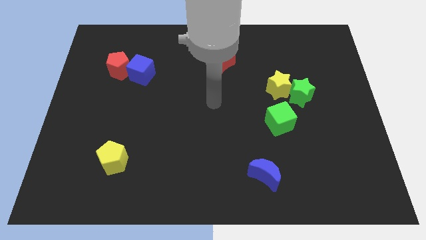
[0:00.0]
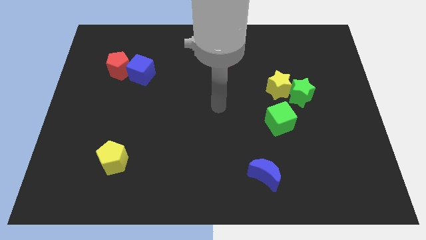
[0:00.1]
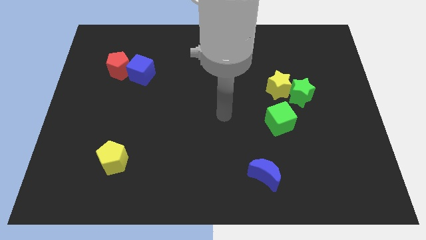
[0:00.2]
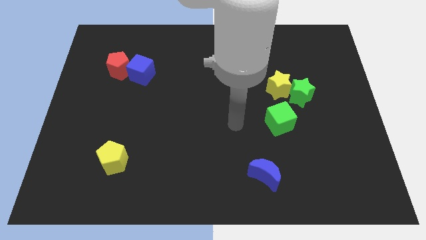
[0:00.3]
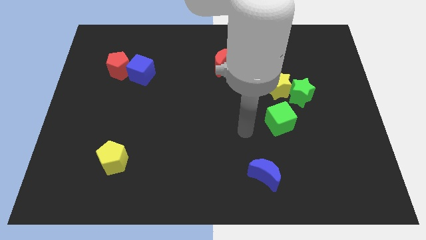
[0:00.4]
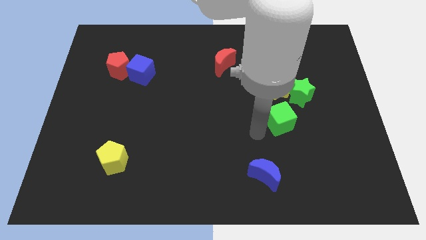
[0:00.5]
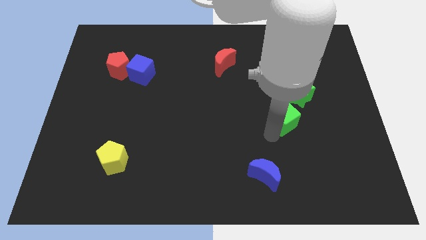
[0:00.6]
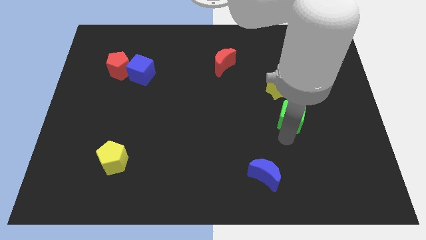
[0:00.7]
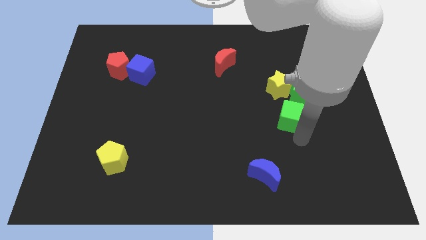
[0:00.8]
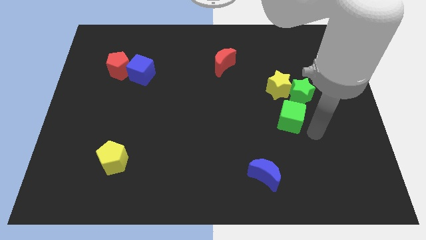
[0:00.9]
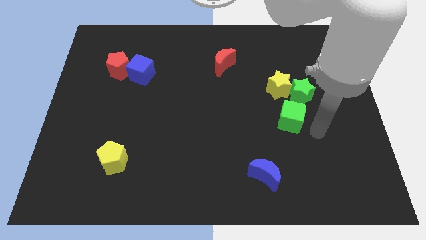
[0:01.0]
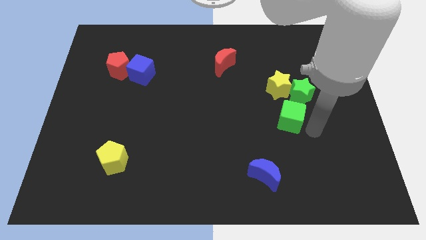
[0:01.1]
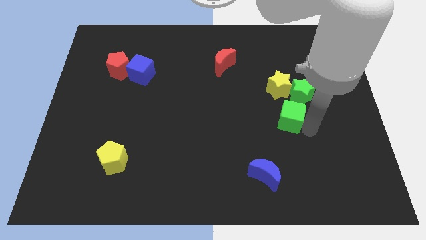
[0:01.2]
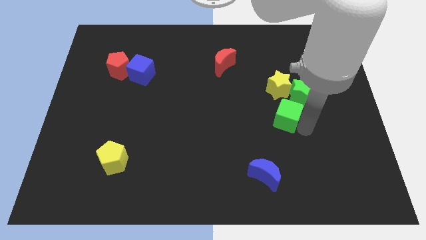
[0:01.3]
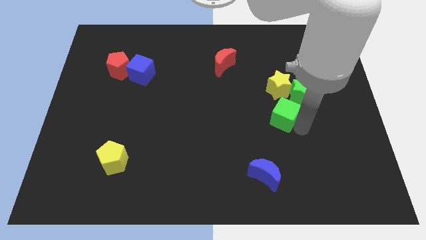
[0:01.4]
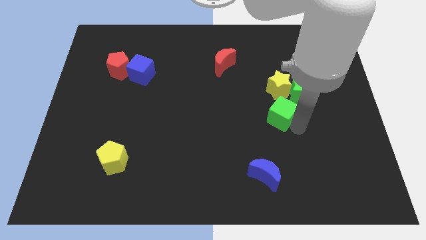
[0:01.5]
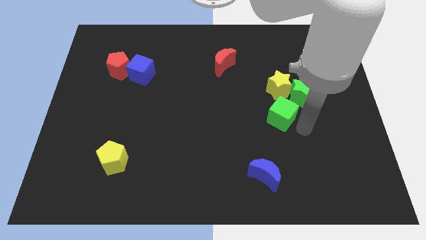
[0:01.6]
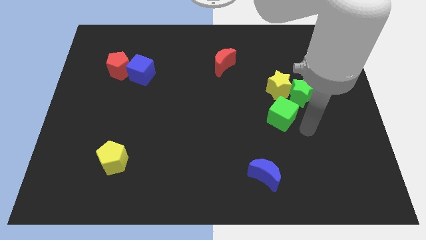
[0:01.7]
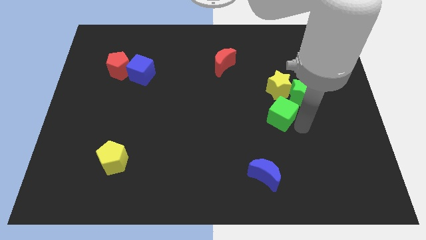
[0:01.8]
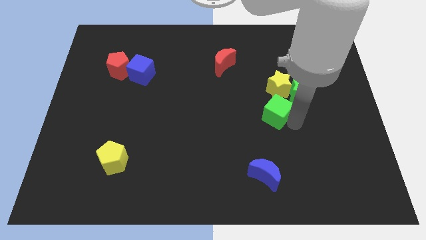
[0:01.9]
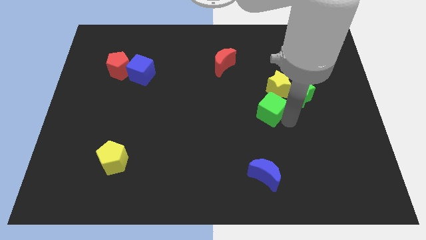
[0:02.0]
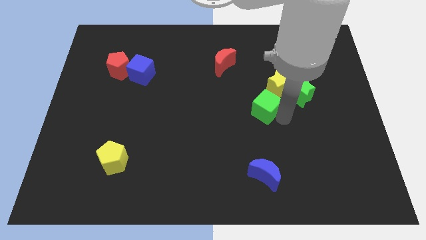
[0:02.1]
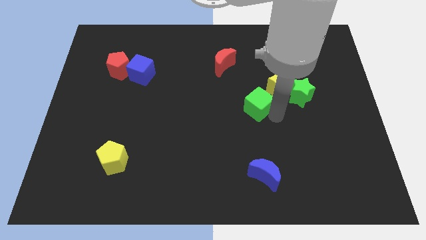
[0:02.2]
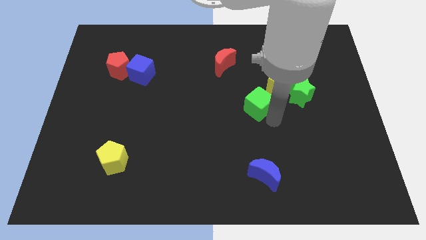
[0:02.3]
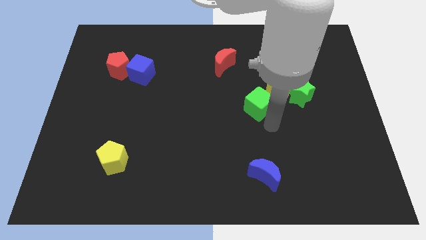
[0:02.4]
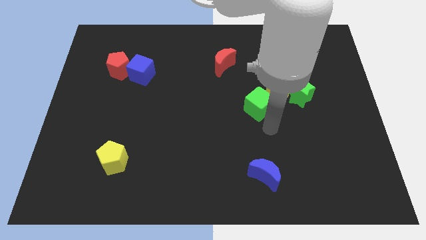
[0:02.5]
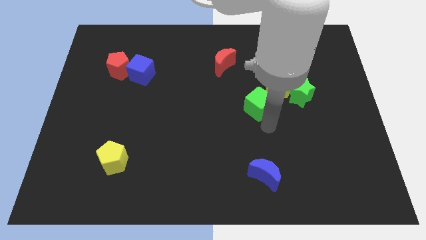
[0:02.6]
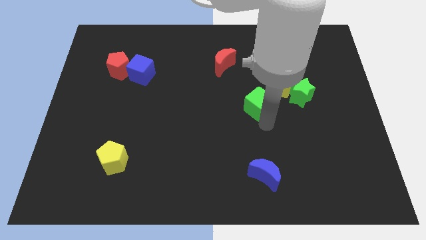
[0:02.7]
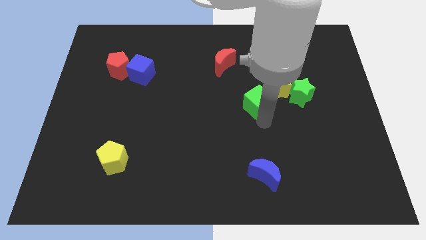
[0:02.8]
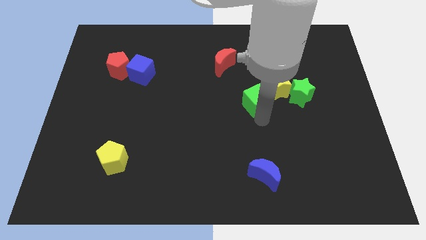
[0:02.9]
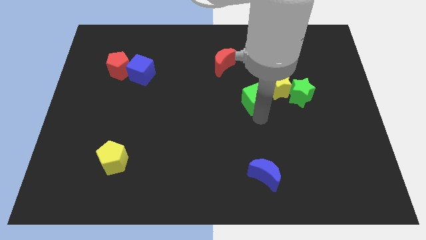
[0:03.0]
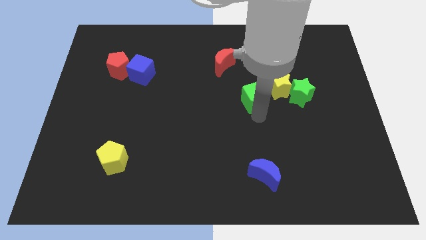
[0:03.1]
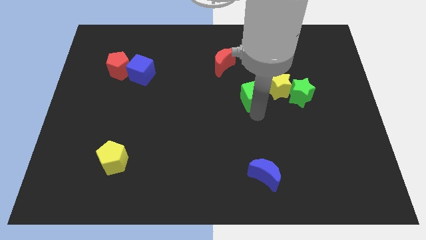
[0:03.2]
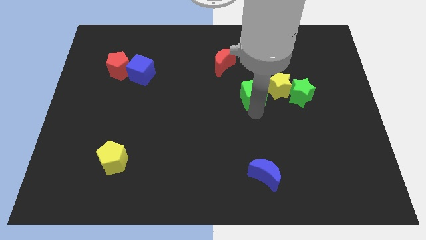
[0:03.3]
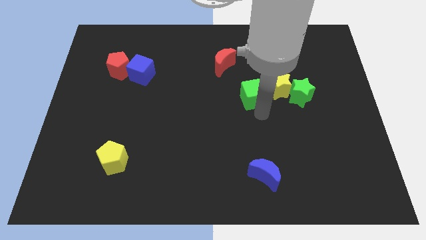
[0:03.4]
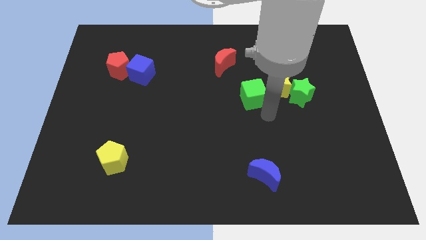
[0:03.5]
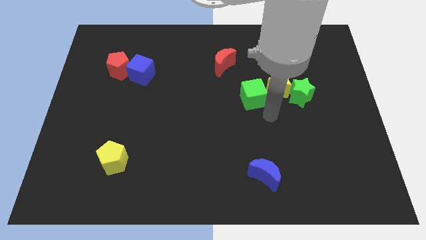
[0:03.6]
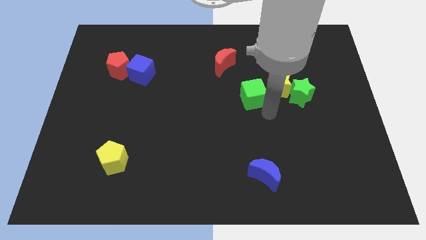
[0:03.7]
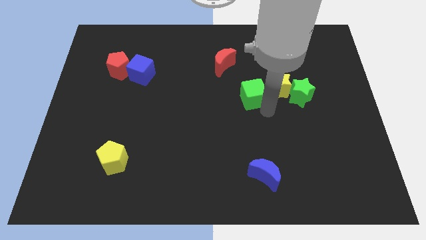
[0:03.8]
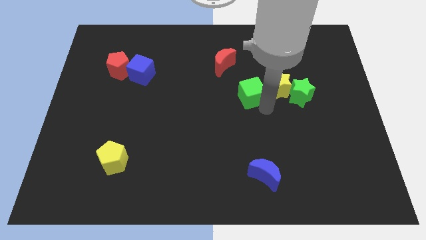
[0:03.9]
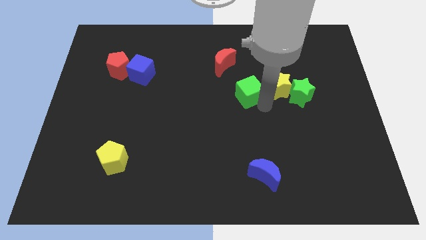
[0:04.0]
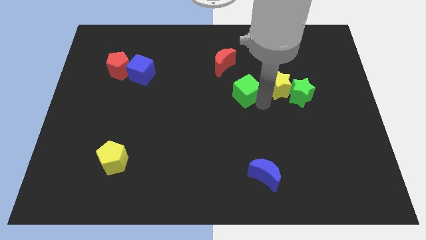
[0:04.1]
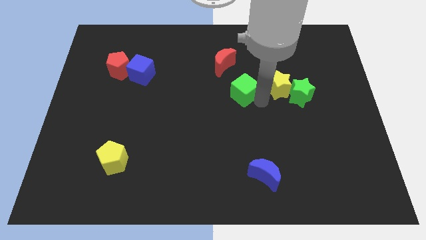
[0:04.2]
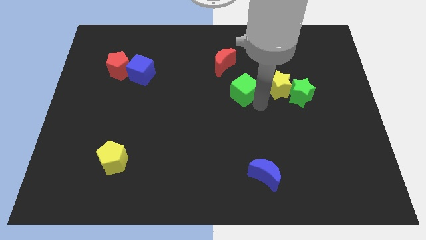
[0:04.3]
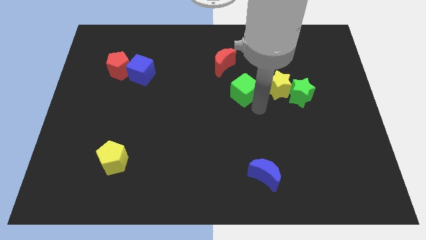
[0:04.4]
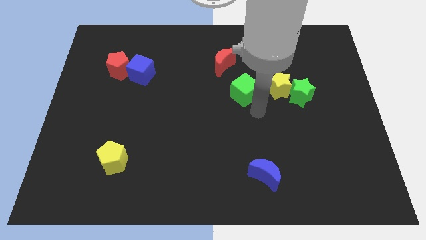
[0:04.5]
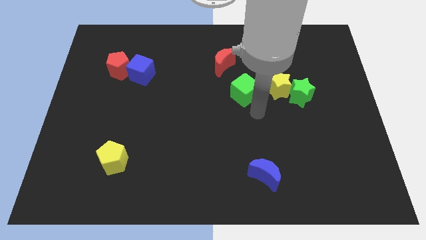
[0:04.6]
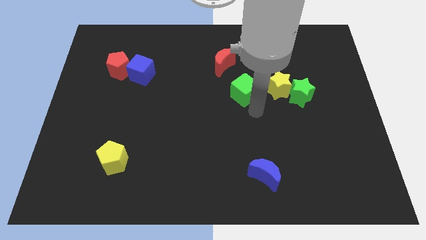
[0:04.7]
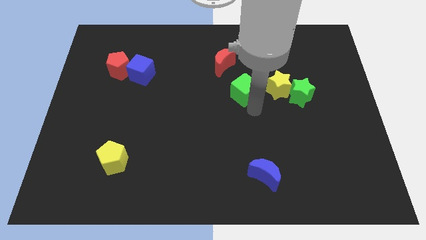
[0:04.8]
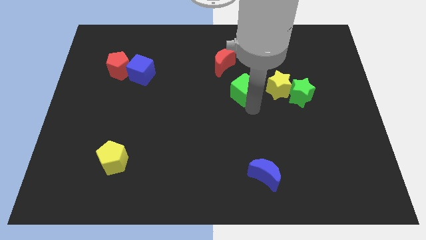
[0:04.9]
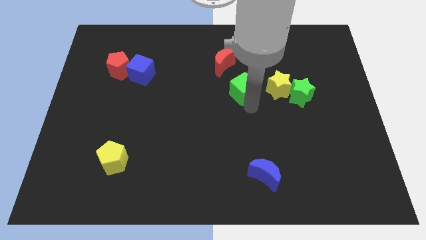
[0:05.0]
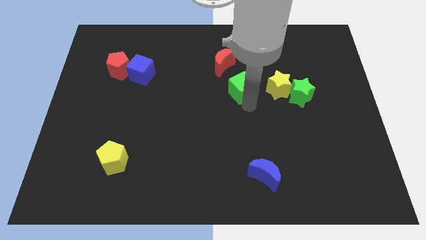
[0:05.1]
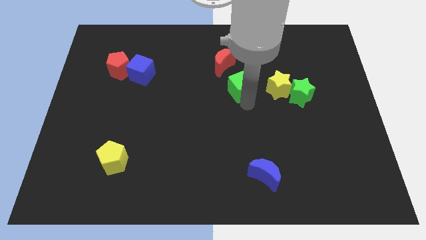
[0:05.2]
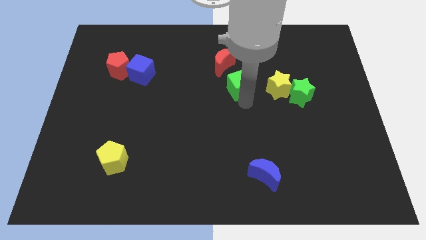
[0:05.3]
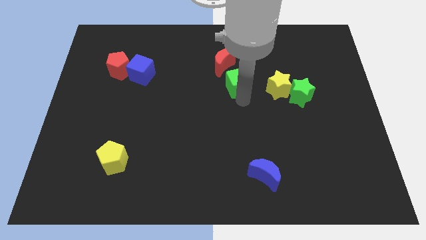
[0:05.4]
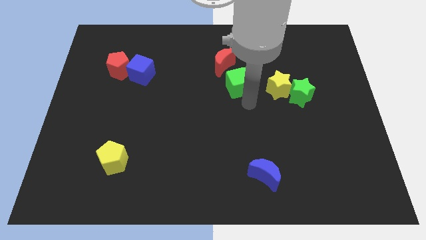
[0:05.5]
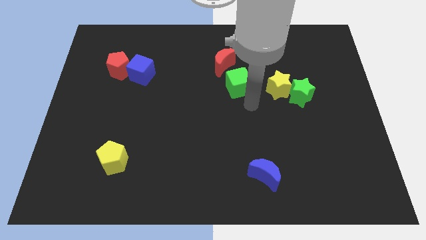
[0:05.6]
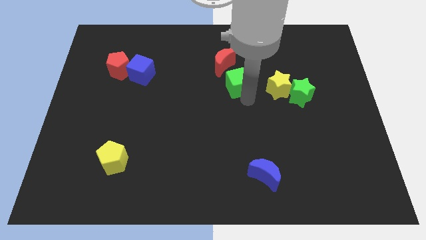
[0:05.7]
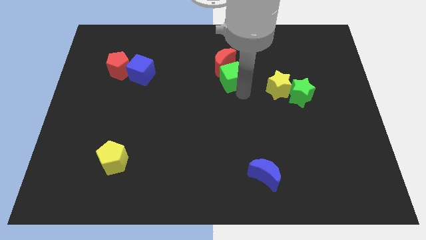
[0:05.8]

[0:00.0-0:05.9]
put the green cube close to the red moon
